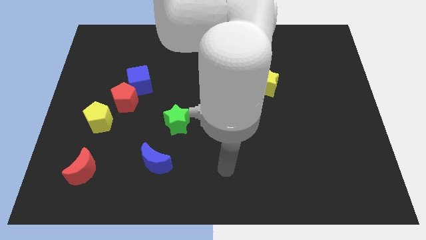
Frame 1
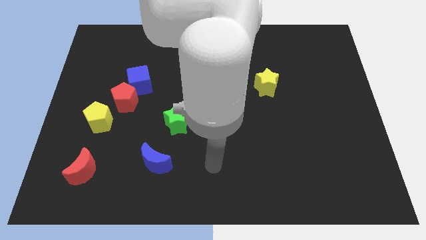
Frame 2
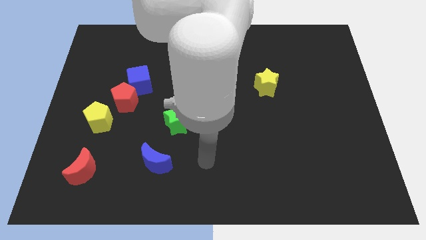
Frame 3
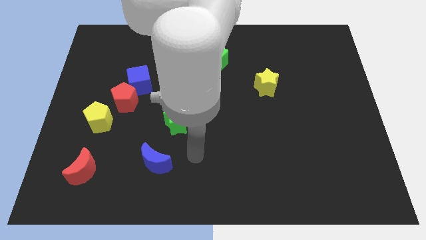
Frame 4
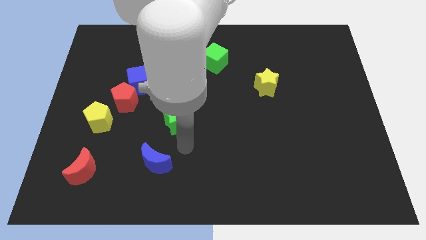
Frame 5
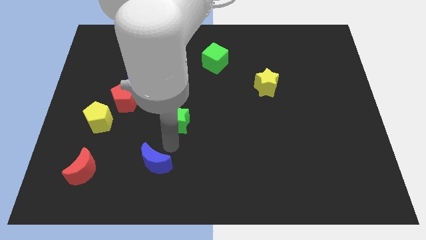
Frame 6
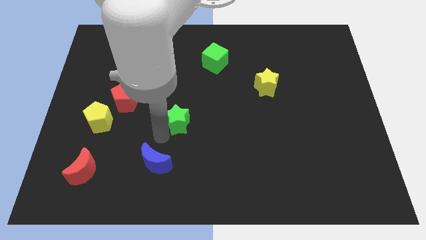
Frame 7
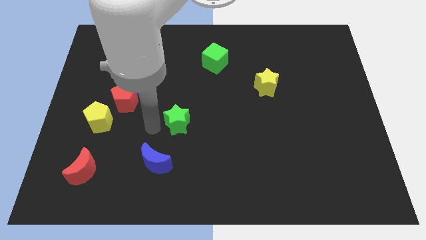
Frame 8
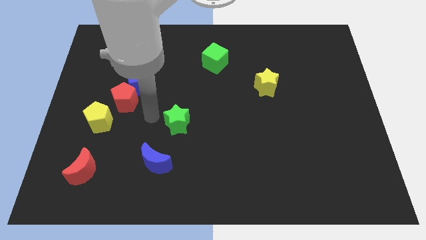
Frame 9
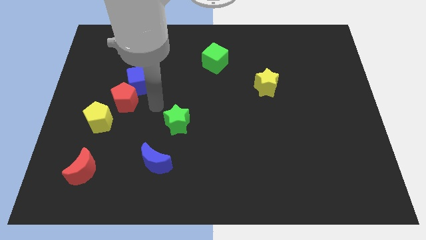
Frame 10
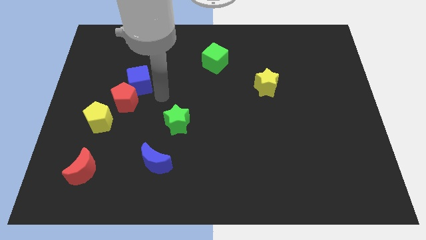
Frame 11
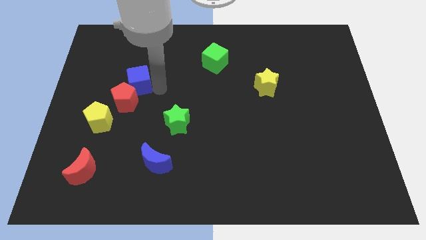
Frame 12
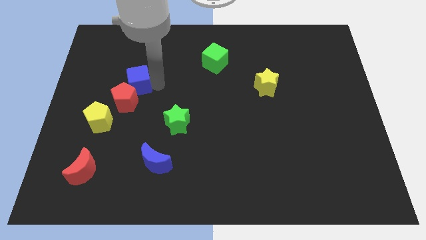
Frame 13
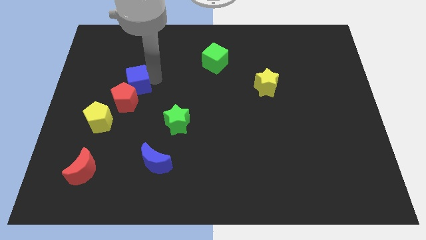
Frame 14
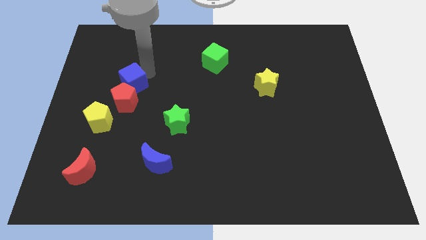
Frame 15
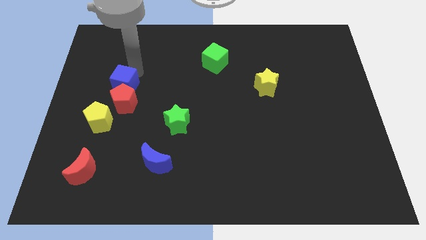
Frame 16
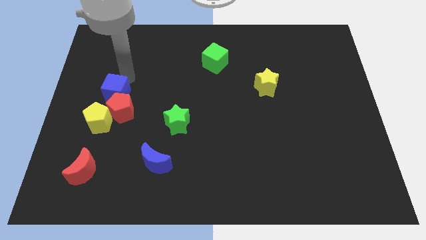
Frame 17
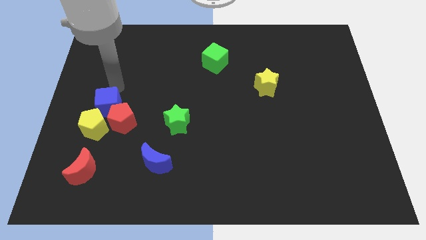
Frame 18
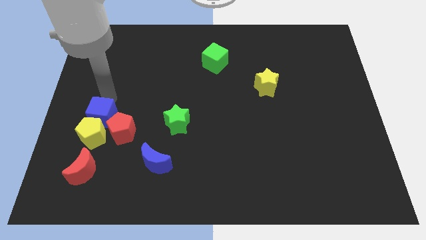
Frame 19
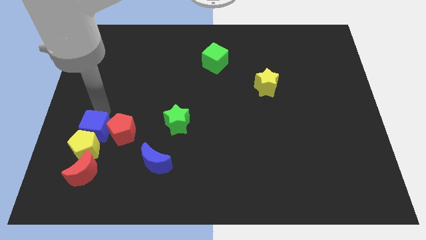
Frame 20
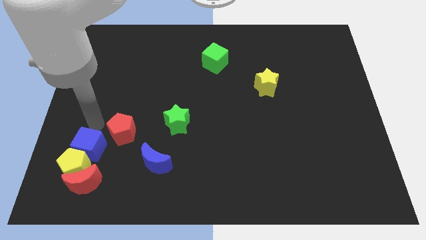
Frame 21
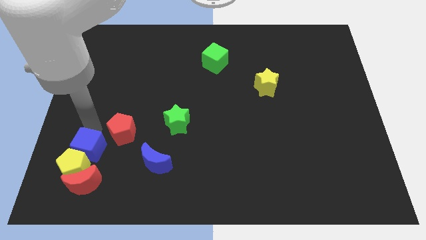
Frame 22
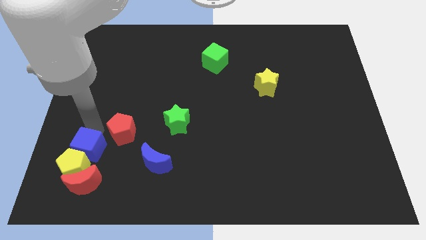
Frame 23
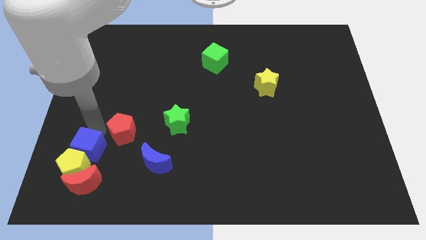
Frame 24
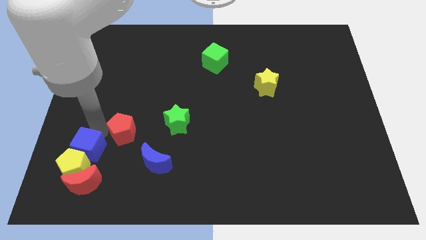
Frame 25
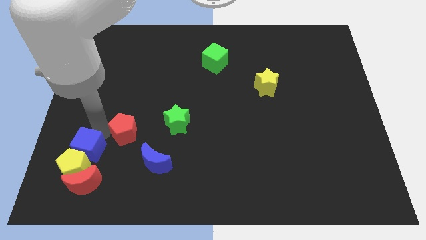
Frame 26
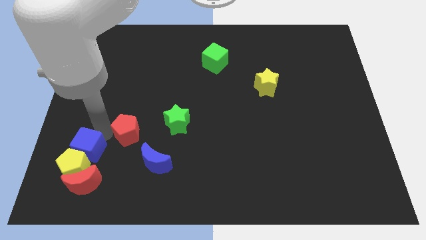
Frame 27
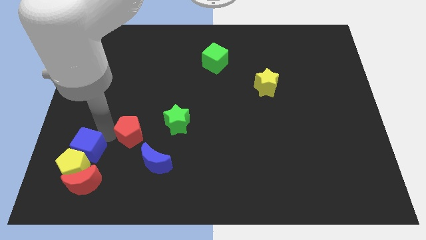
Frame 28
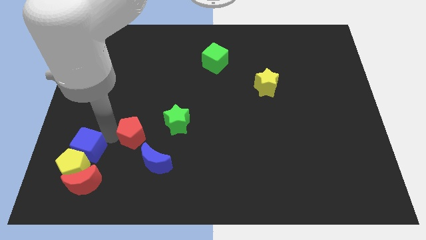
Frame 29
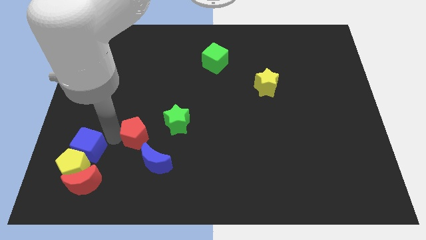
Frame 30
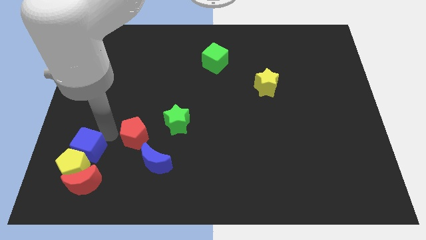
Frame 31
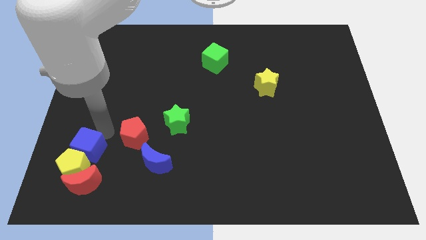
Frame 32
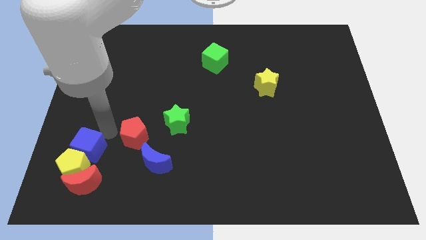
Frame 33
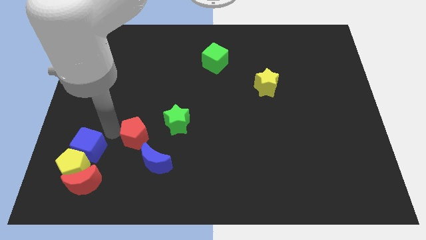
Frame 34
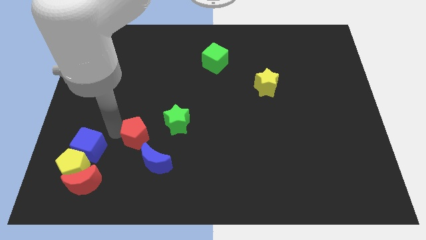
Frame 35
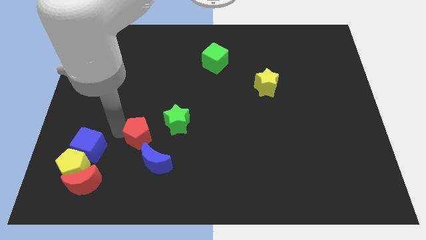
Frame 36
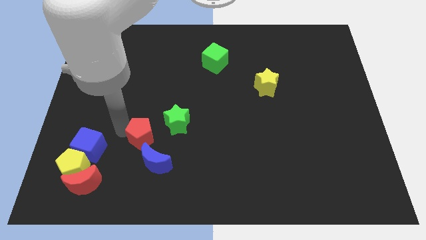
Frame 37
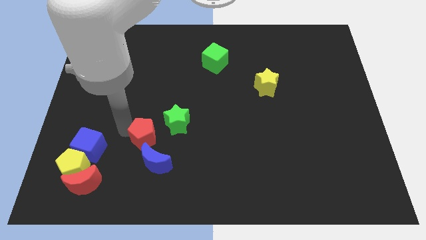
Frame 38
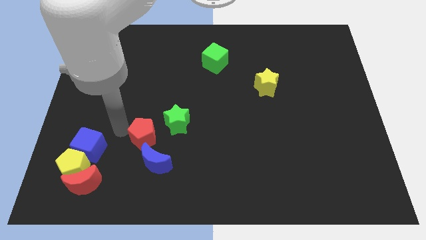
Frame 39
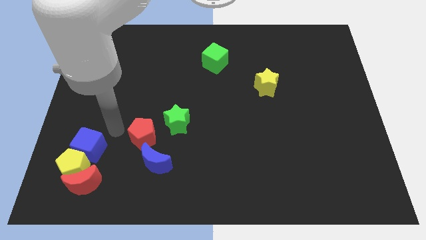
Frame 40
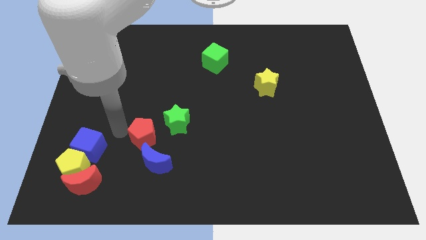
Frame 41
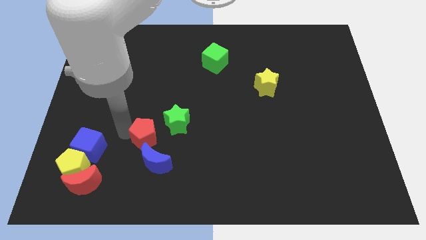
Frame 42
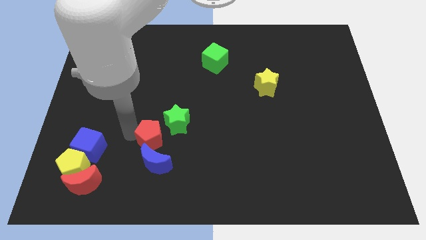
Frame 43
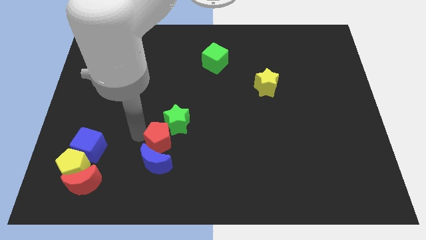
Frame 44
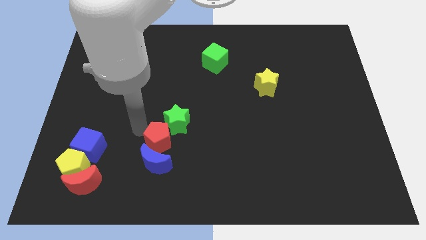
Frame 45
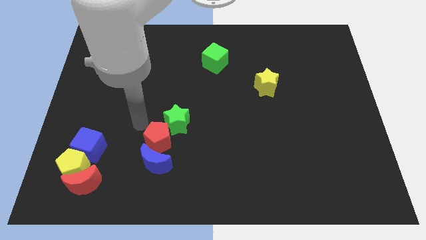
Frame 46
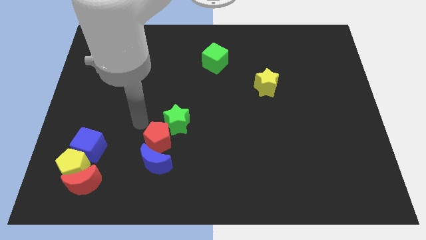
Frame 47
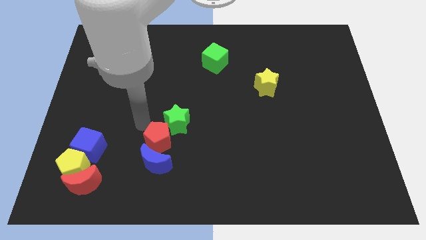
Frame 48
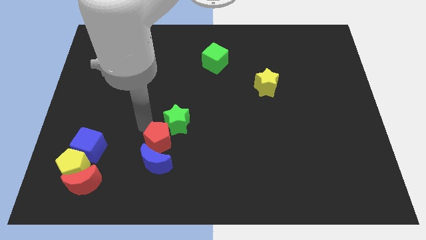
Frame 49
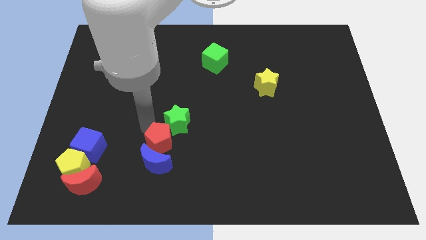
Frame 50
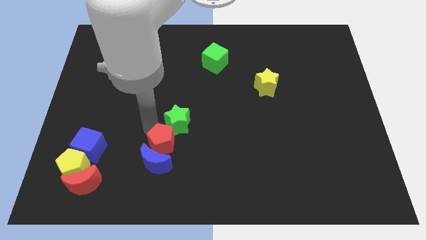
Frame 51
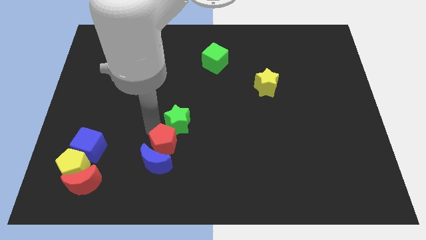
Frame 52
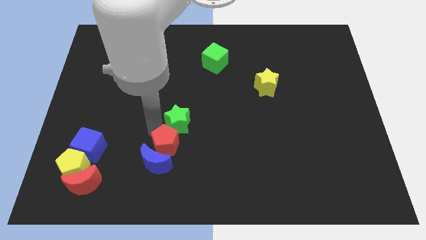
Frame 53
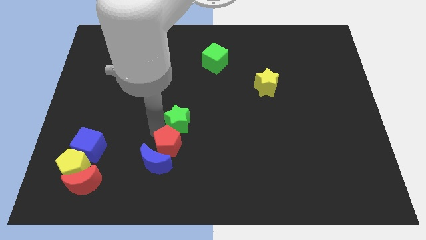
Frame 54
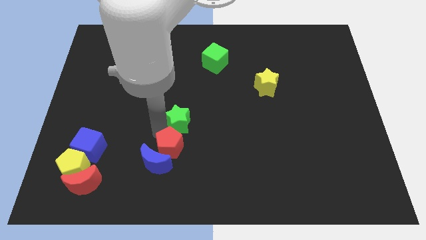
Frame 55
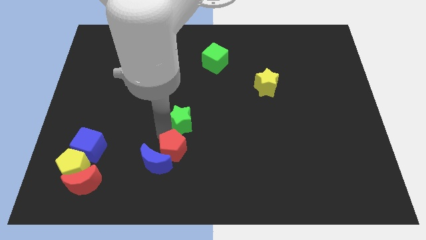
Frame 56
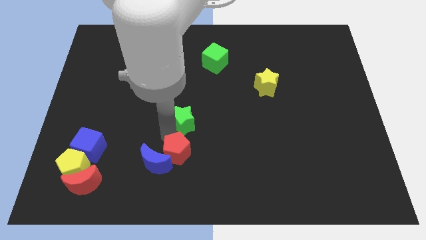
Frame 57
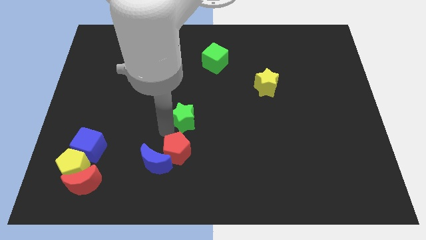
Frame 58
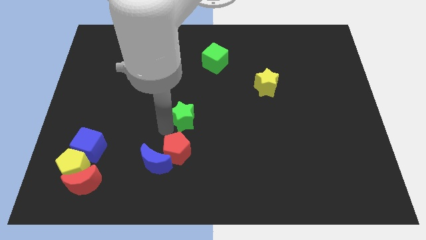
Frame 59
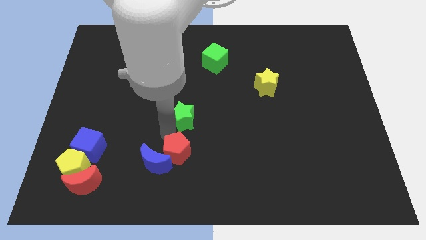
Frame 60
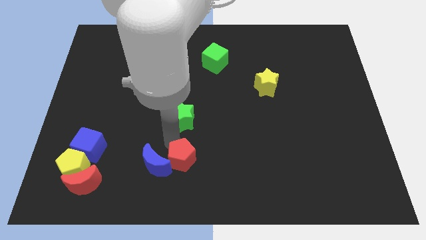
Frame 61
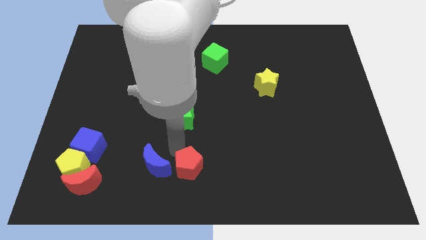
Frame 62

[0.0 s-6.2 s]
slide the red pentagon to the bottom

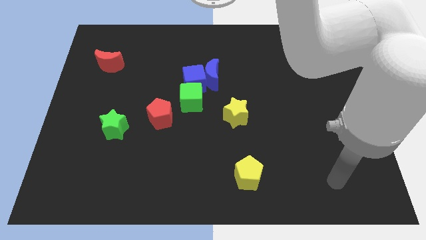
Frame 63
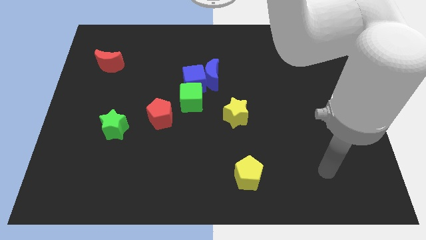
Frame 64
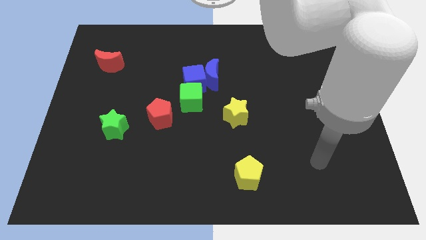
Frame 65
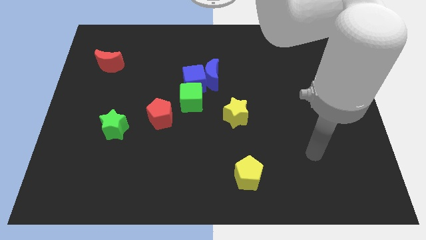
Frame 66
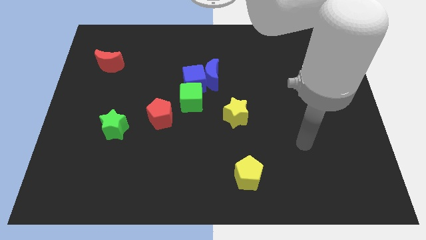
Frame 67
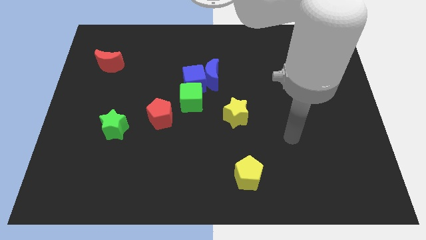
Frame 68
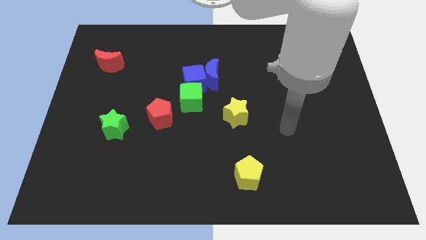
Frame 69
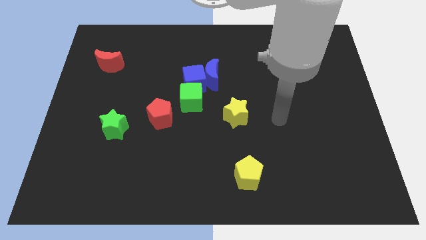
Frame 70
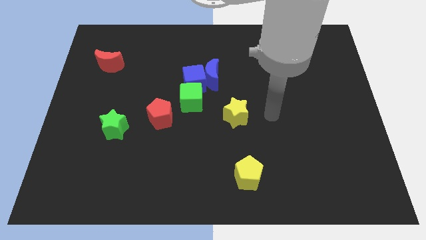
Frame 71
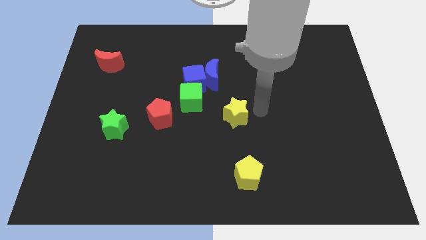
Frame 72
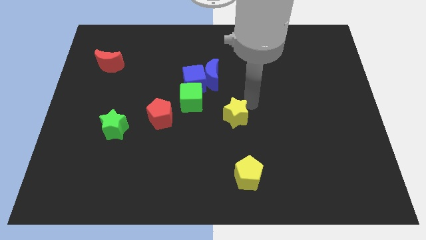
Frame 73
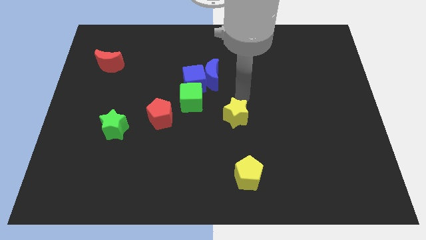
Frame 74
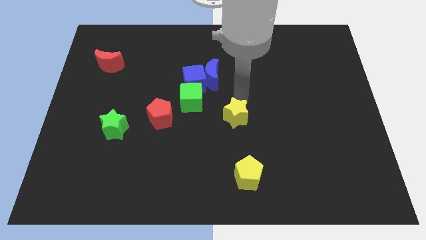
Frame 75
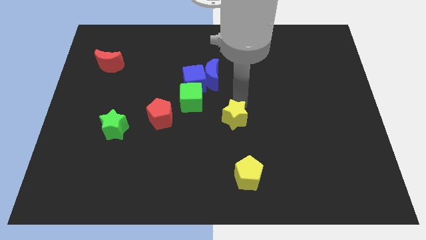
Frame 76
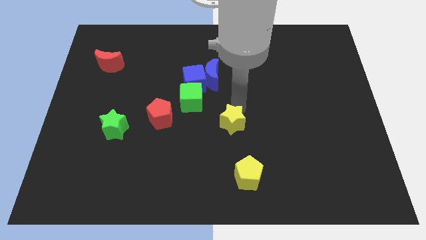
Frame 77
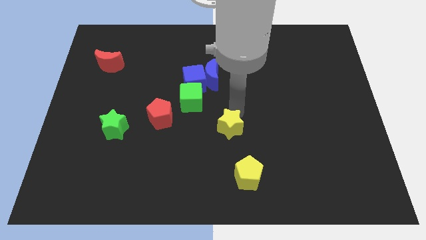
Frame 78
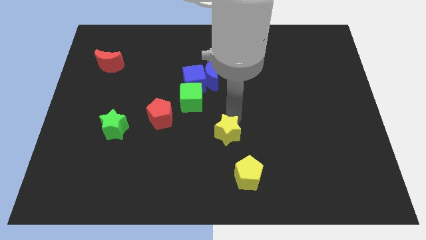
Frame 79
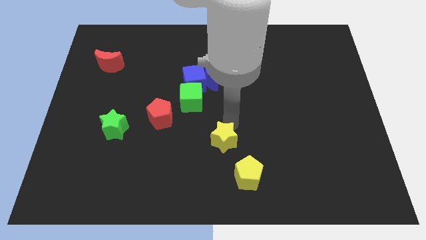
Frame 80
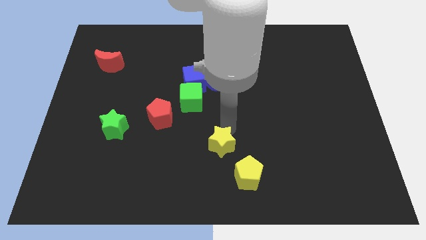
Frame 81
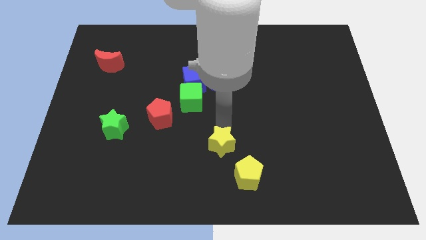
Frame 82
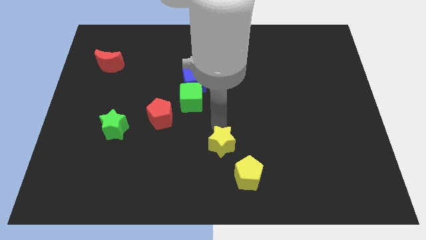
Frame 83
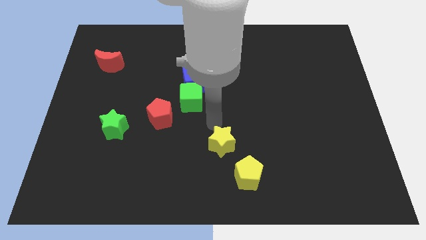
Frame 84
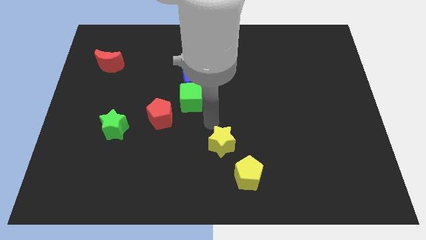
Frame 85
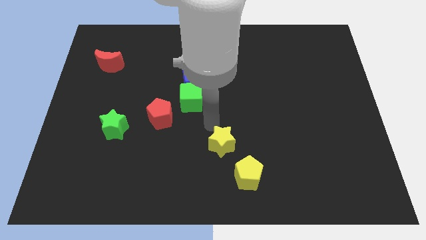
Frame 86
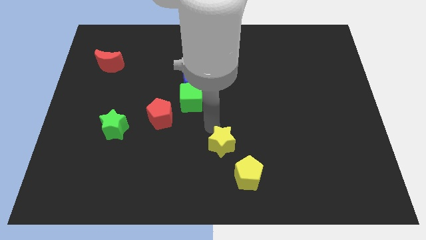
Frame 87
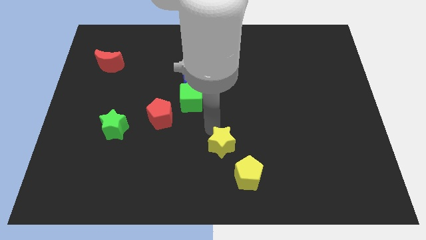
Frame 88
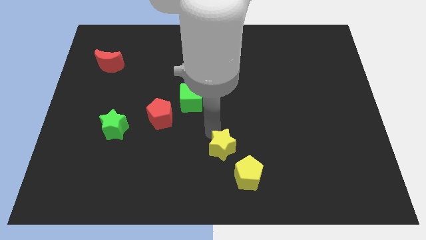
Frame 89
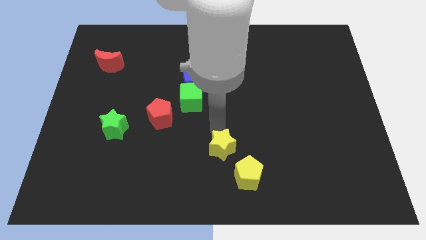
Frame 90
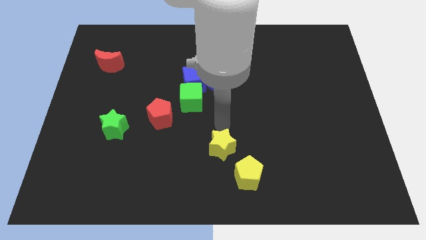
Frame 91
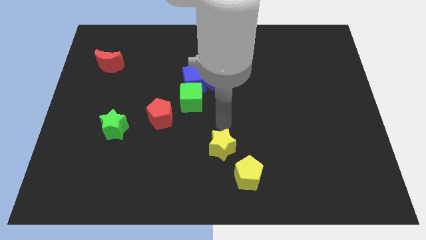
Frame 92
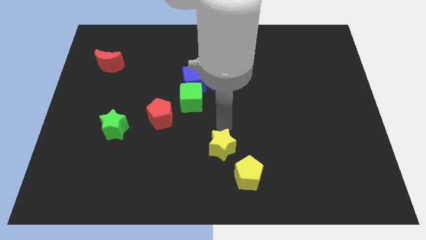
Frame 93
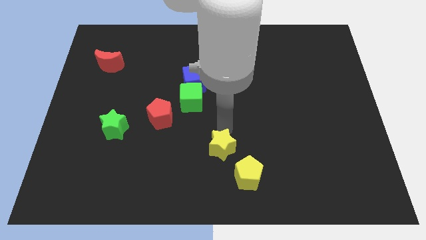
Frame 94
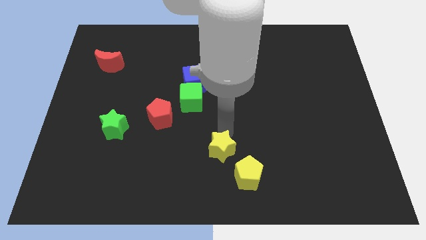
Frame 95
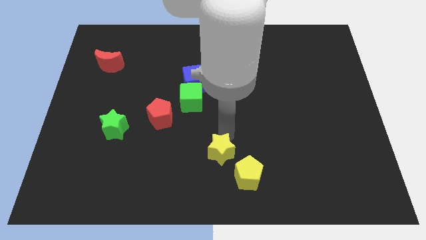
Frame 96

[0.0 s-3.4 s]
put the yellow star to the bottom side
